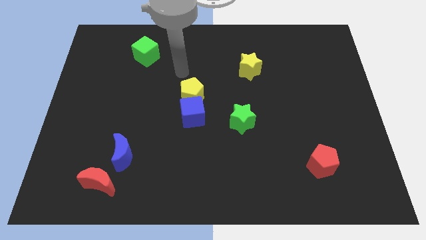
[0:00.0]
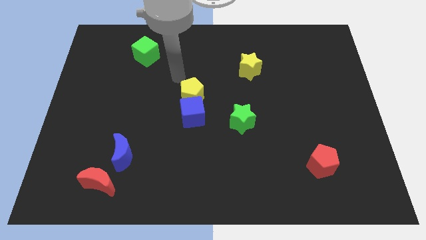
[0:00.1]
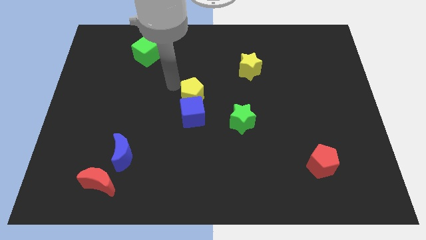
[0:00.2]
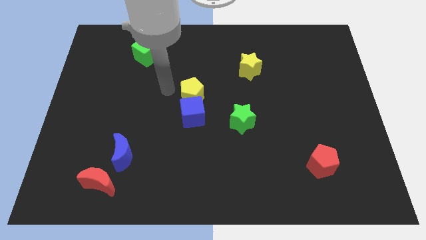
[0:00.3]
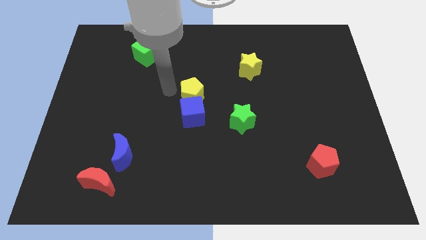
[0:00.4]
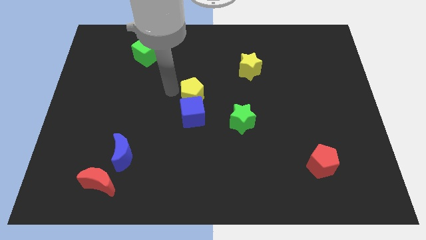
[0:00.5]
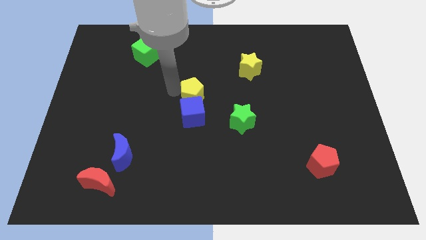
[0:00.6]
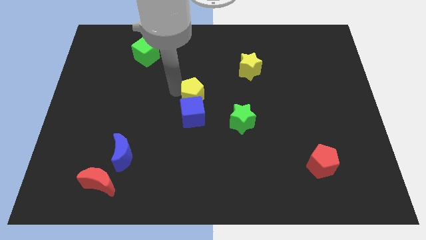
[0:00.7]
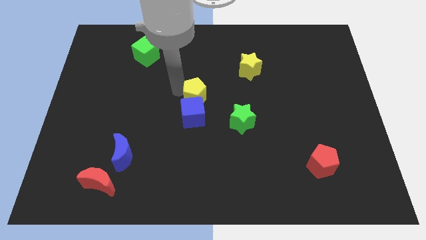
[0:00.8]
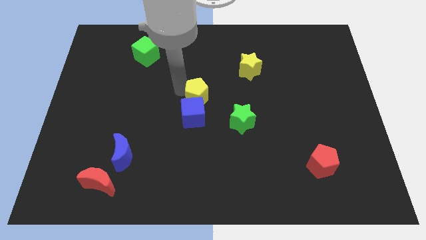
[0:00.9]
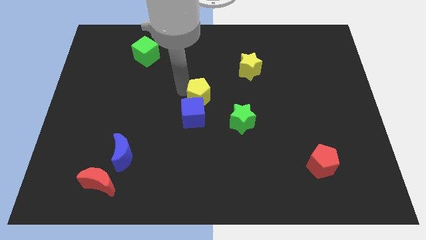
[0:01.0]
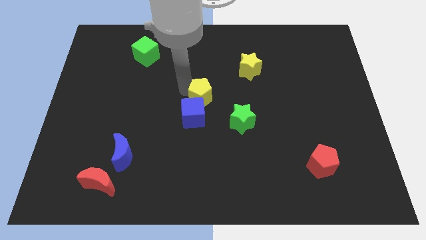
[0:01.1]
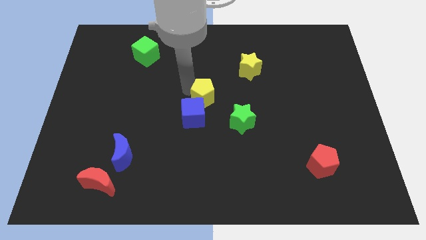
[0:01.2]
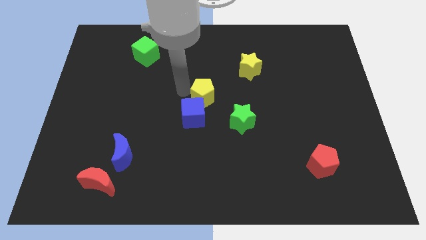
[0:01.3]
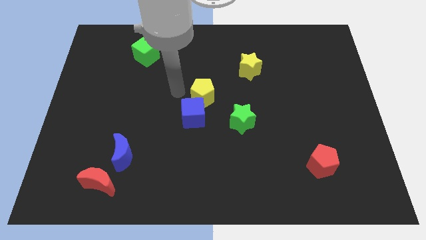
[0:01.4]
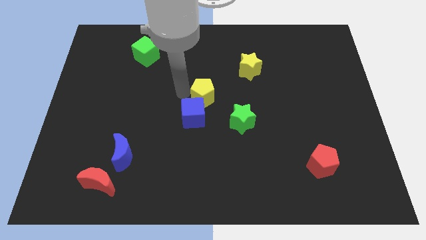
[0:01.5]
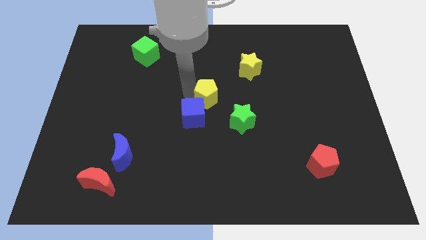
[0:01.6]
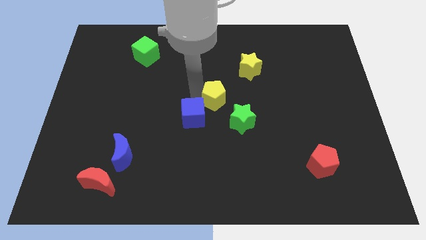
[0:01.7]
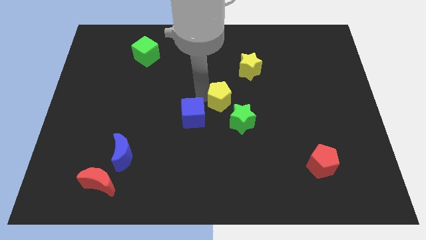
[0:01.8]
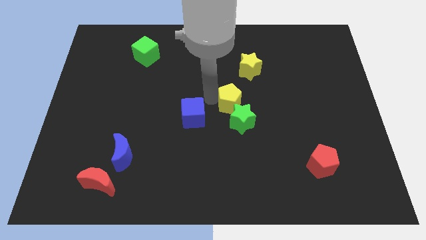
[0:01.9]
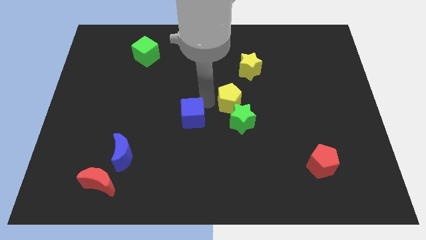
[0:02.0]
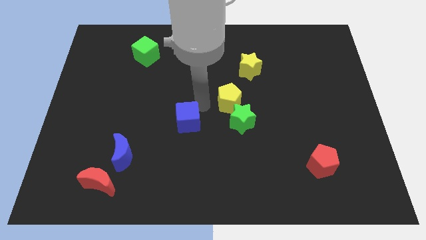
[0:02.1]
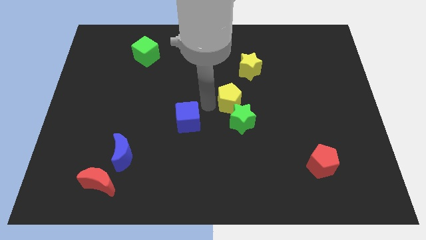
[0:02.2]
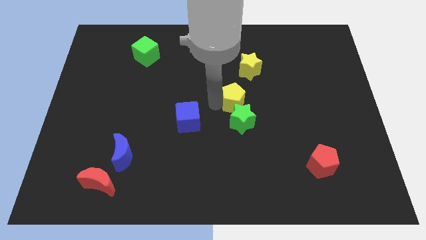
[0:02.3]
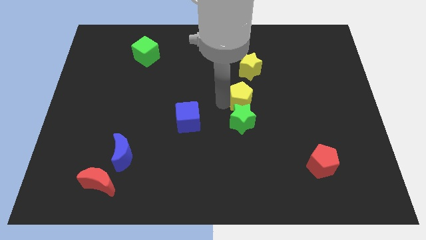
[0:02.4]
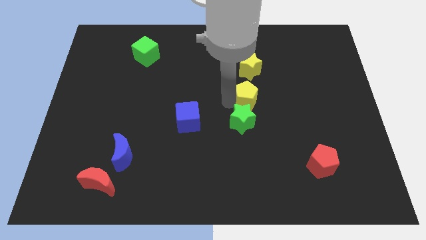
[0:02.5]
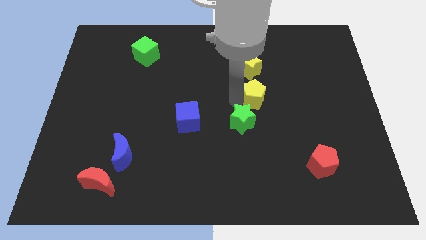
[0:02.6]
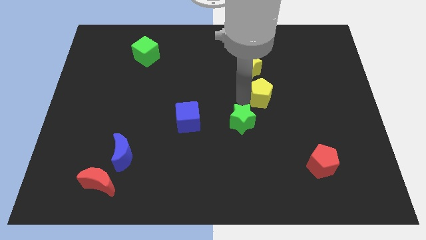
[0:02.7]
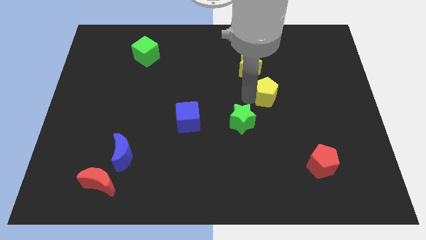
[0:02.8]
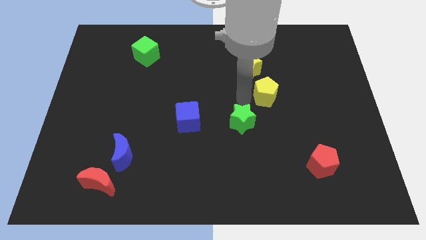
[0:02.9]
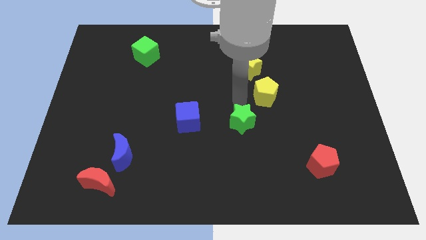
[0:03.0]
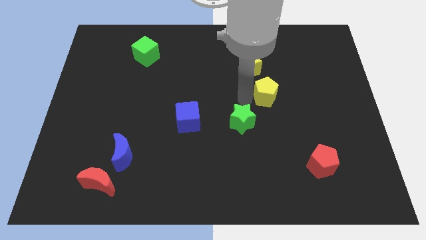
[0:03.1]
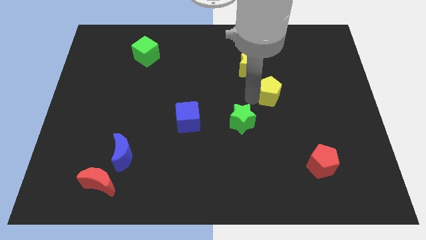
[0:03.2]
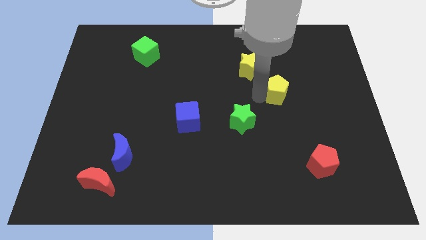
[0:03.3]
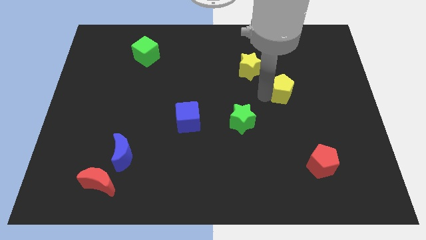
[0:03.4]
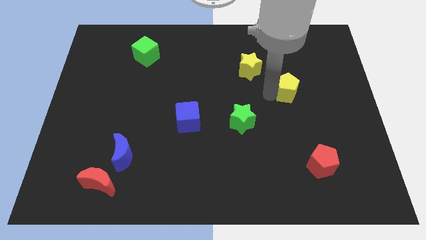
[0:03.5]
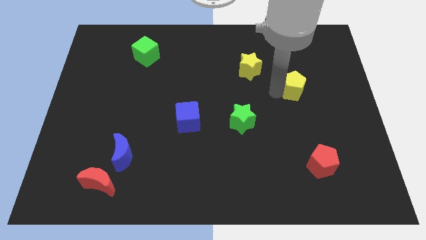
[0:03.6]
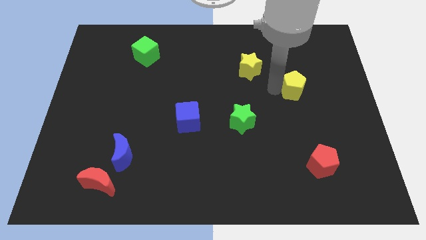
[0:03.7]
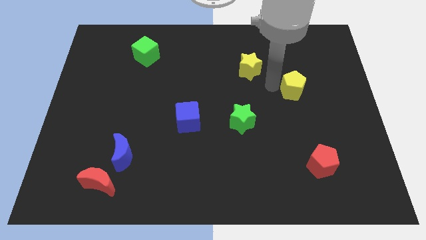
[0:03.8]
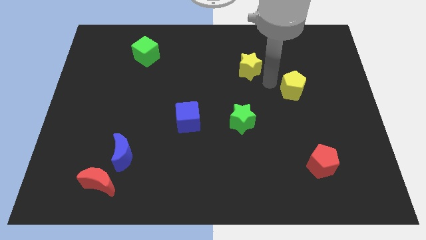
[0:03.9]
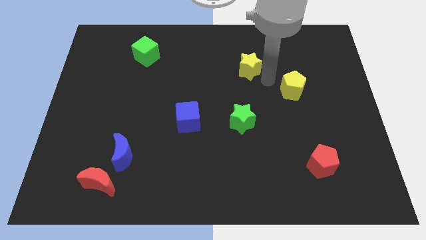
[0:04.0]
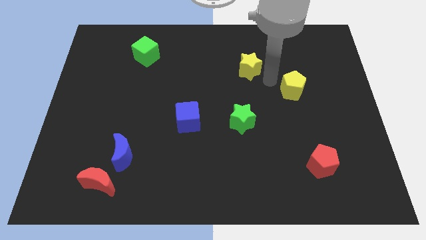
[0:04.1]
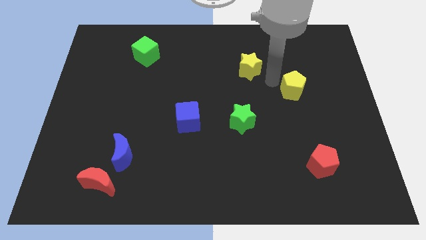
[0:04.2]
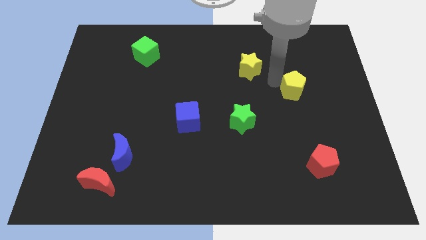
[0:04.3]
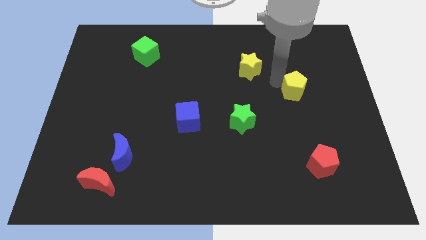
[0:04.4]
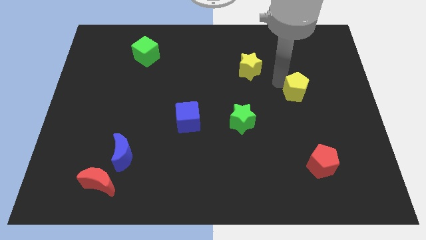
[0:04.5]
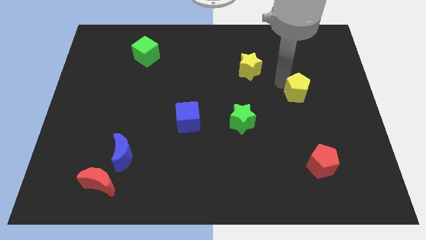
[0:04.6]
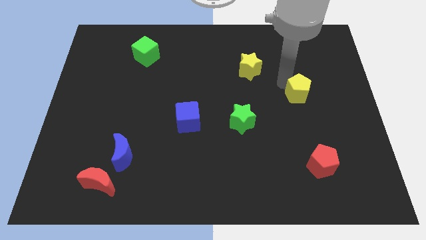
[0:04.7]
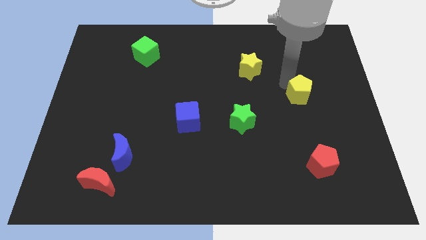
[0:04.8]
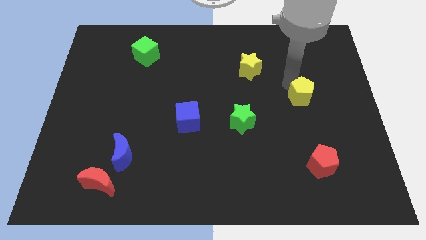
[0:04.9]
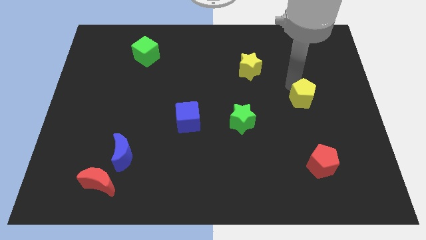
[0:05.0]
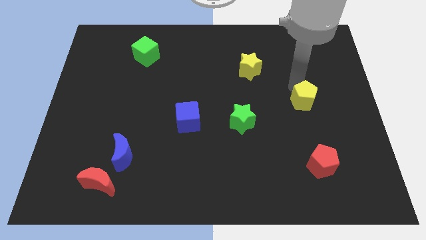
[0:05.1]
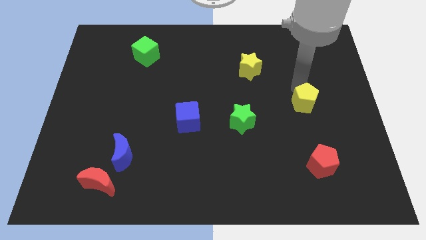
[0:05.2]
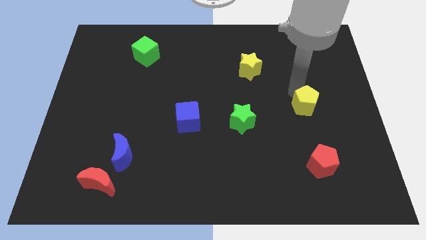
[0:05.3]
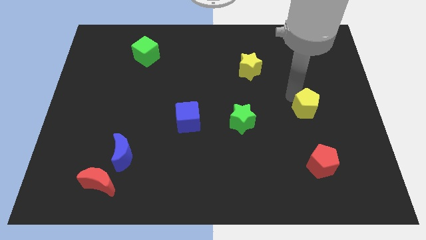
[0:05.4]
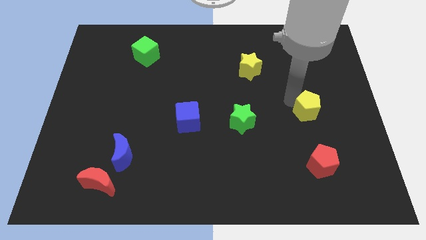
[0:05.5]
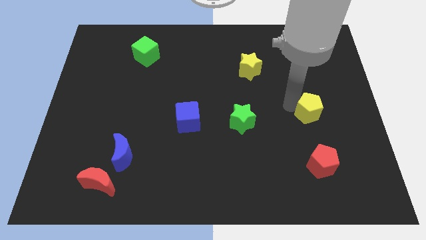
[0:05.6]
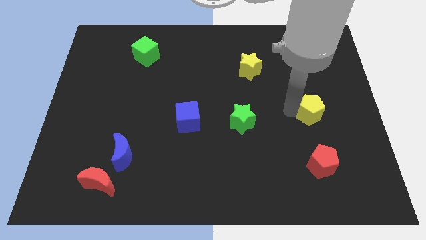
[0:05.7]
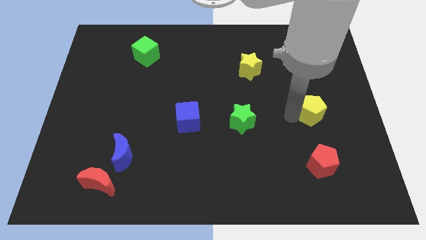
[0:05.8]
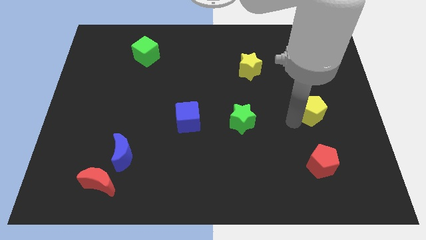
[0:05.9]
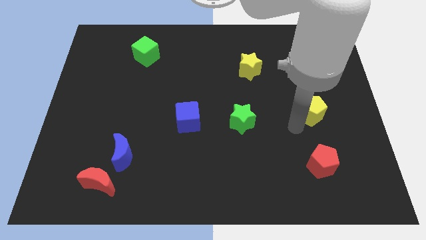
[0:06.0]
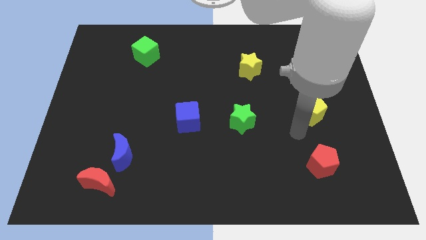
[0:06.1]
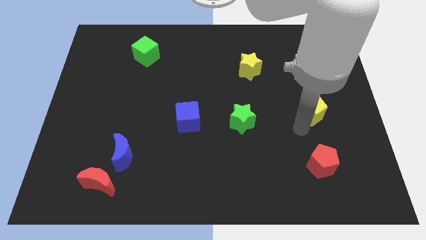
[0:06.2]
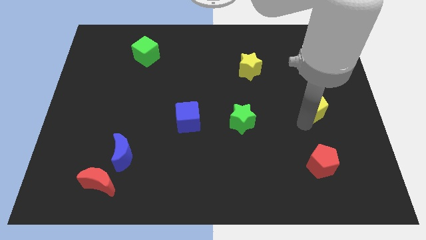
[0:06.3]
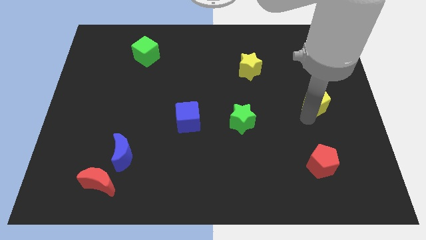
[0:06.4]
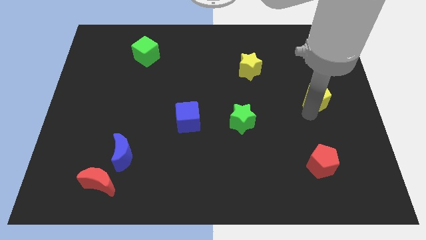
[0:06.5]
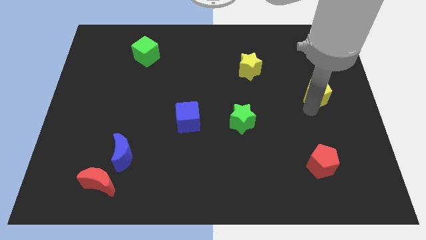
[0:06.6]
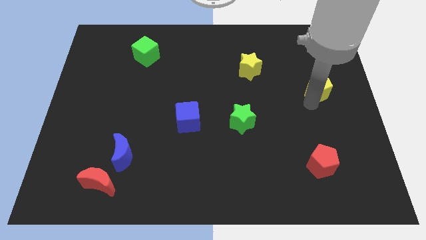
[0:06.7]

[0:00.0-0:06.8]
put the yellow pentagon to the right side
